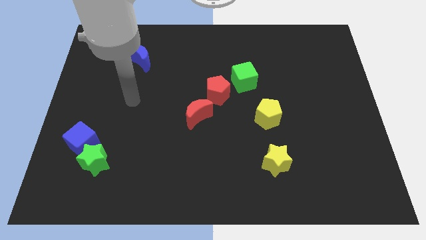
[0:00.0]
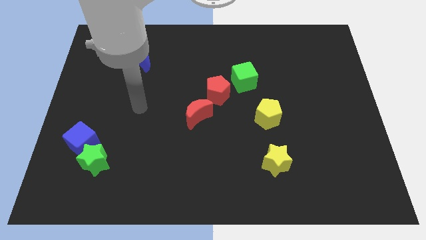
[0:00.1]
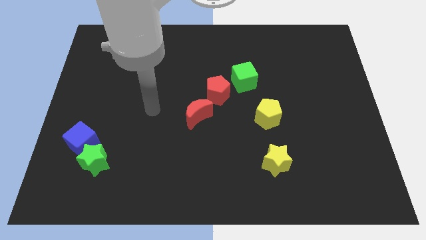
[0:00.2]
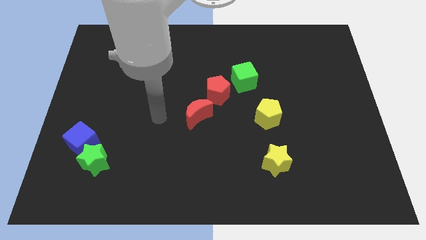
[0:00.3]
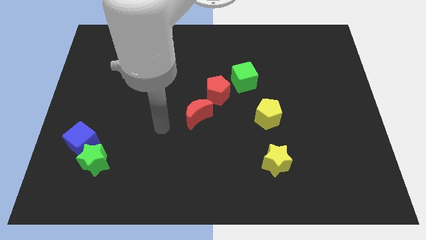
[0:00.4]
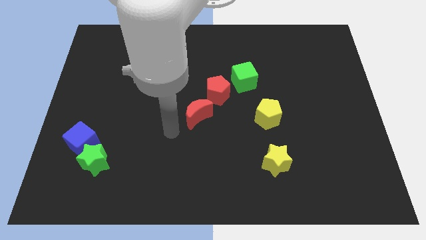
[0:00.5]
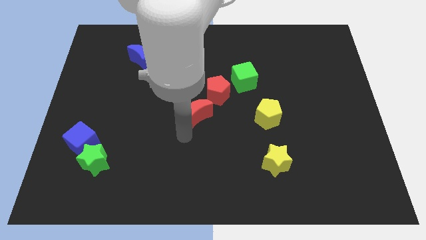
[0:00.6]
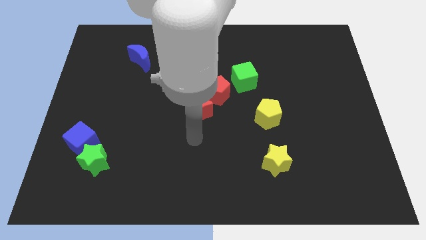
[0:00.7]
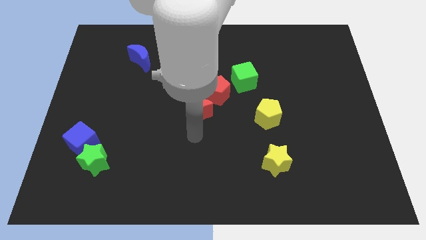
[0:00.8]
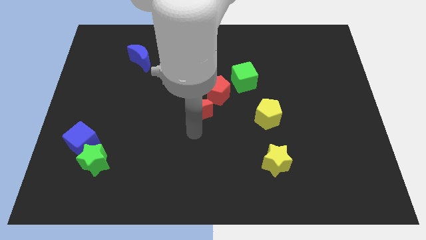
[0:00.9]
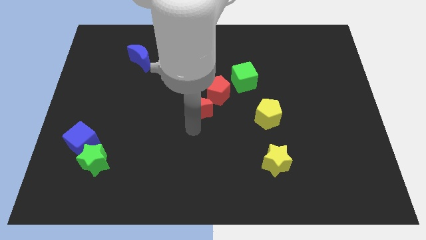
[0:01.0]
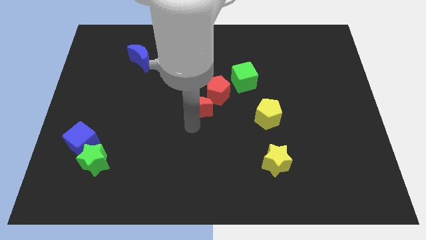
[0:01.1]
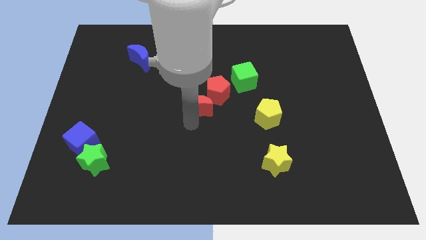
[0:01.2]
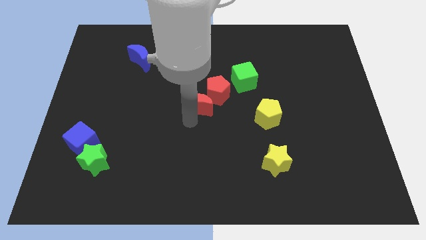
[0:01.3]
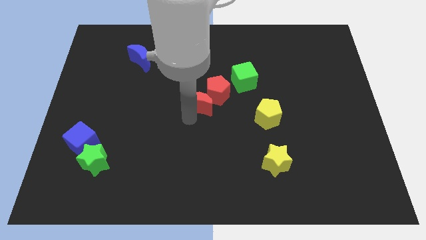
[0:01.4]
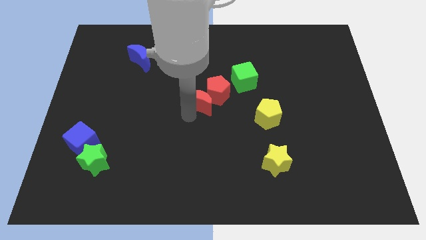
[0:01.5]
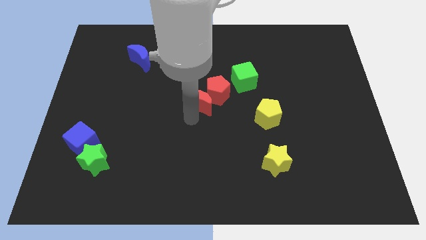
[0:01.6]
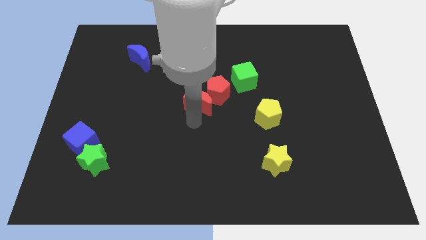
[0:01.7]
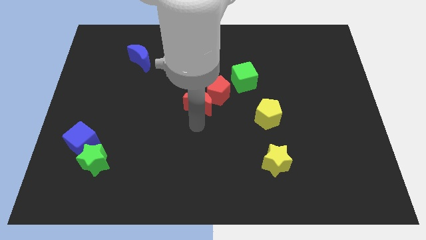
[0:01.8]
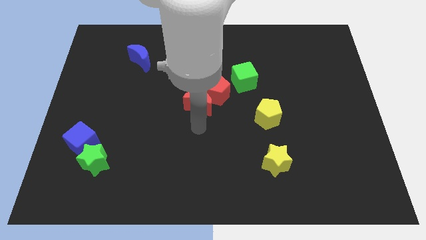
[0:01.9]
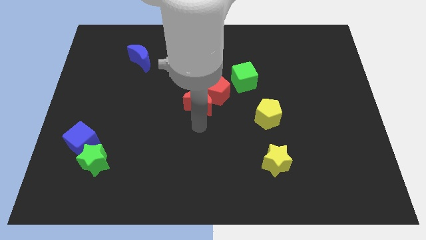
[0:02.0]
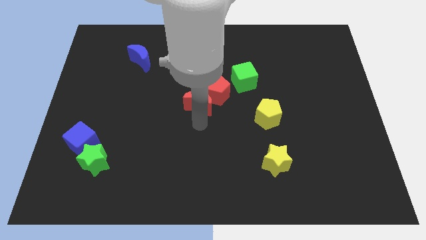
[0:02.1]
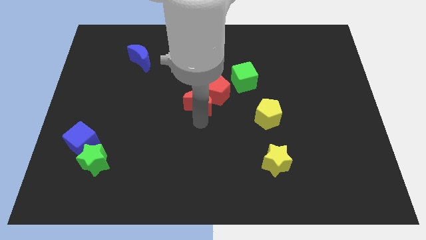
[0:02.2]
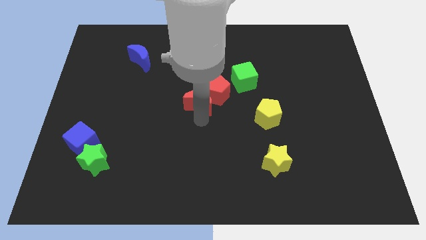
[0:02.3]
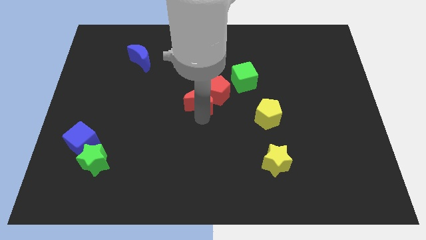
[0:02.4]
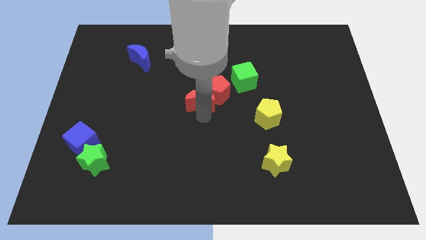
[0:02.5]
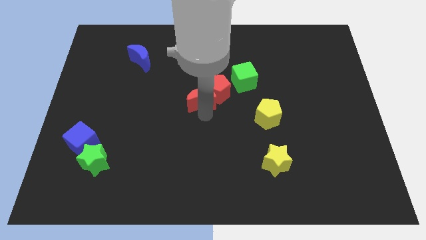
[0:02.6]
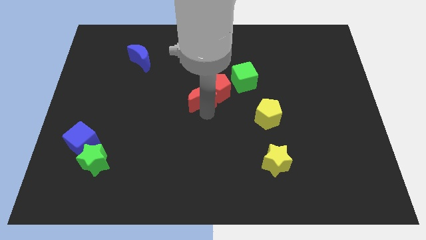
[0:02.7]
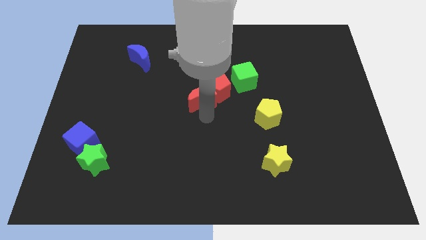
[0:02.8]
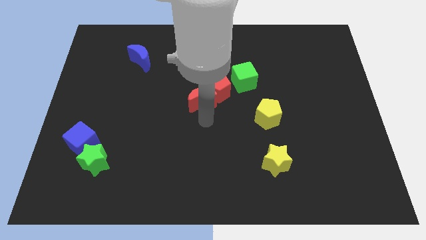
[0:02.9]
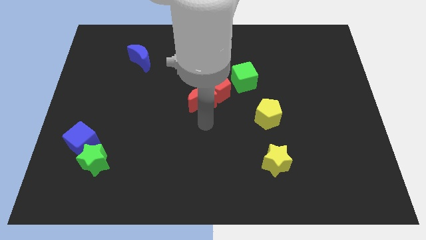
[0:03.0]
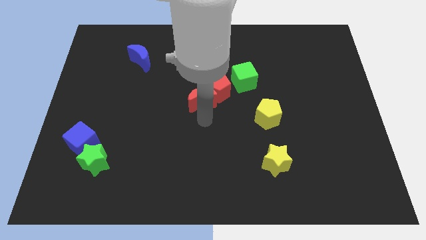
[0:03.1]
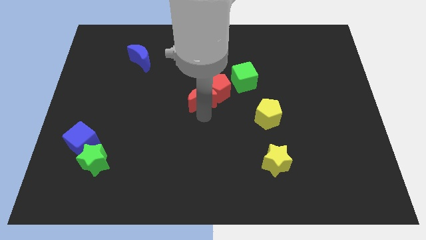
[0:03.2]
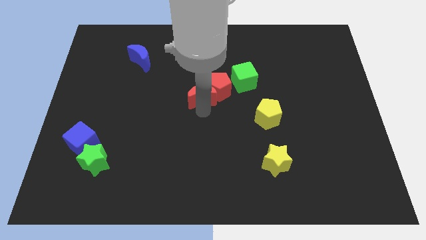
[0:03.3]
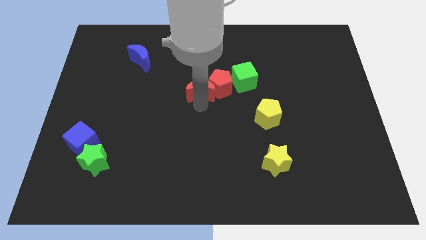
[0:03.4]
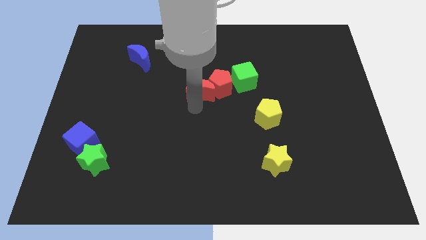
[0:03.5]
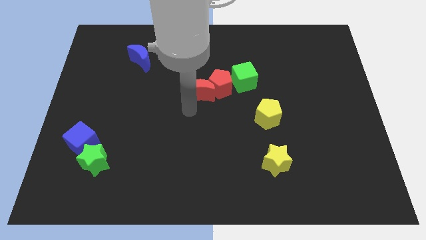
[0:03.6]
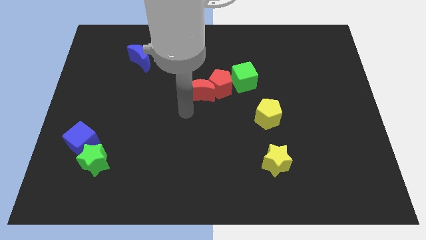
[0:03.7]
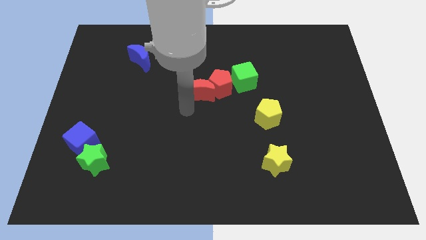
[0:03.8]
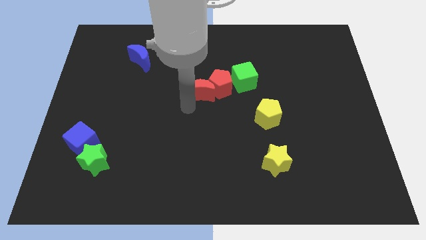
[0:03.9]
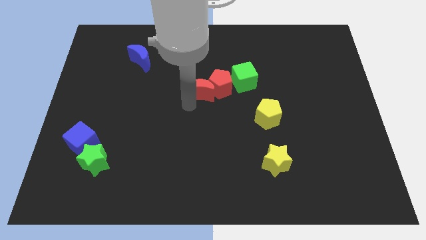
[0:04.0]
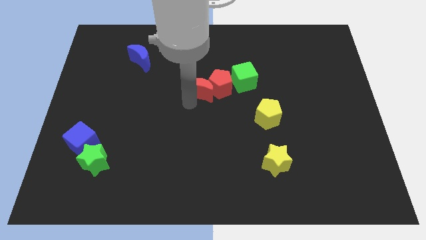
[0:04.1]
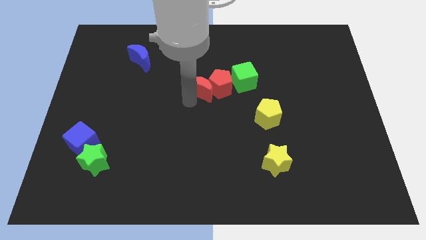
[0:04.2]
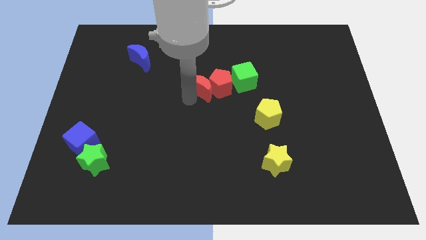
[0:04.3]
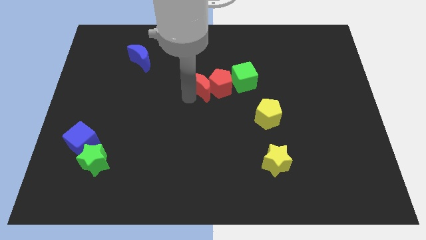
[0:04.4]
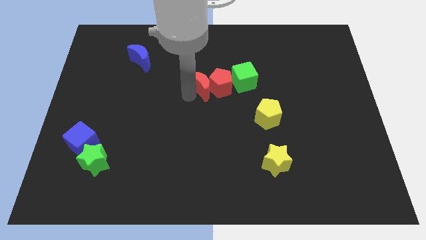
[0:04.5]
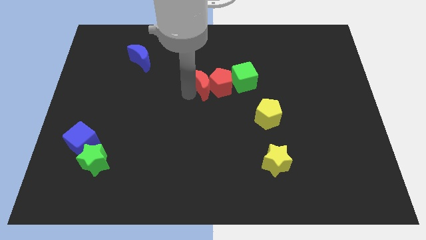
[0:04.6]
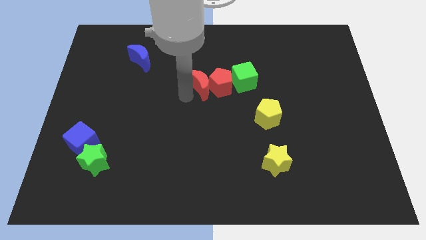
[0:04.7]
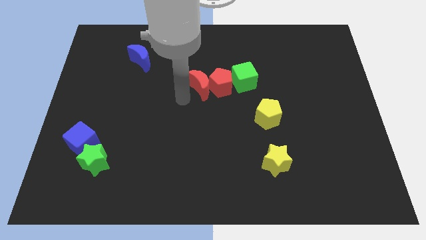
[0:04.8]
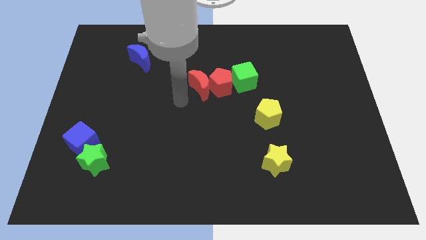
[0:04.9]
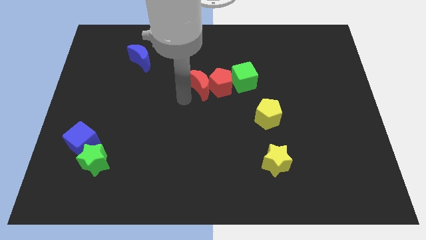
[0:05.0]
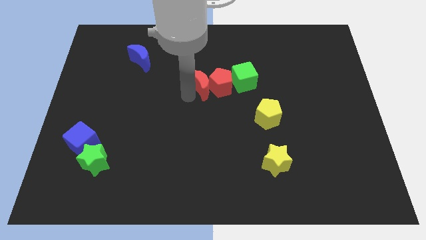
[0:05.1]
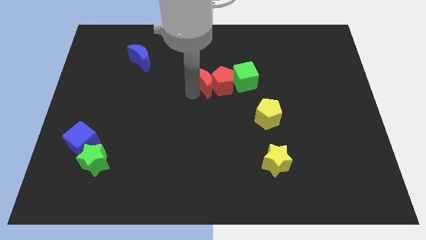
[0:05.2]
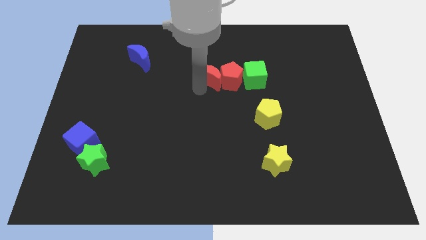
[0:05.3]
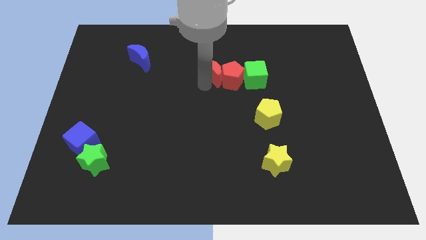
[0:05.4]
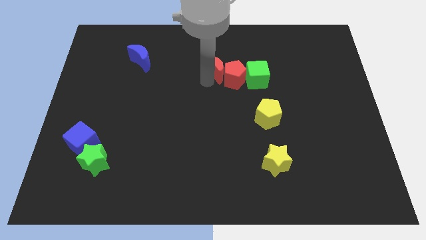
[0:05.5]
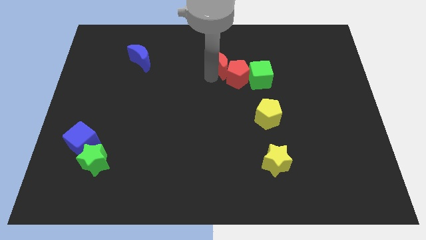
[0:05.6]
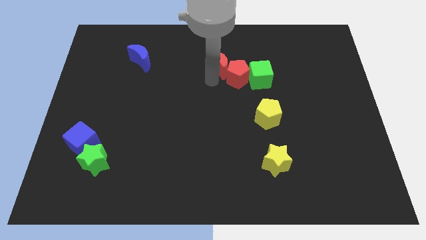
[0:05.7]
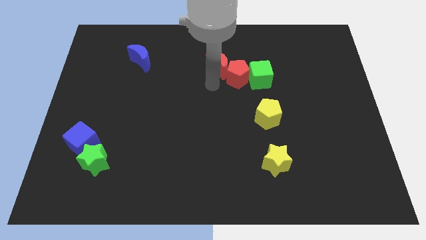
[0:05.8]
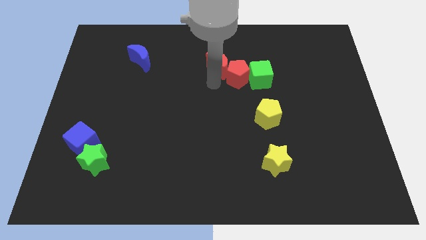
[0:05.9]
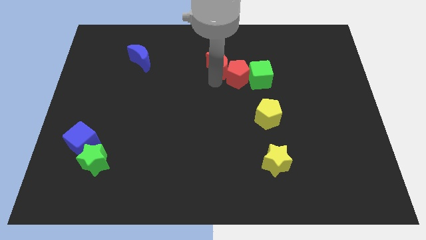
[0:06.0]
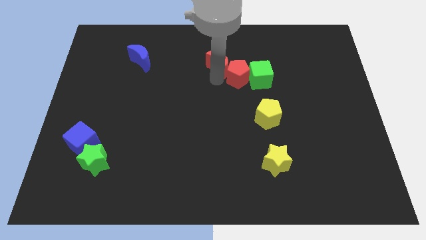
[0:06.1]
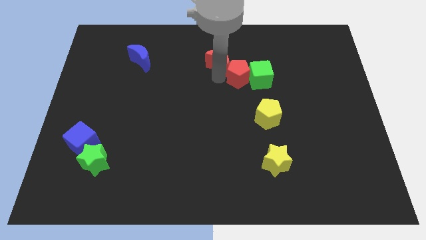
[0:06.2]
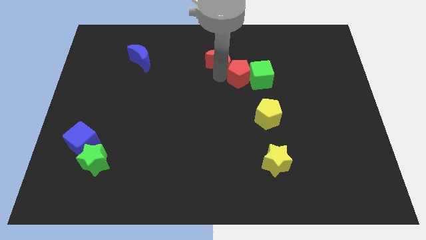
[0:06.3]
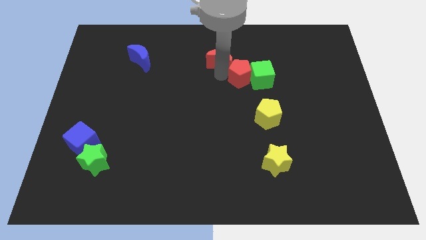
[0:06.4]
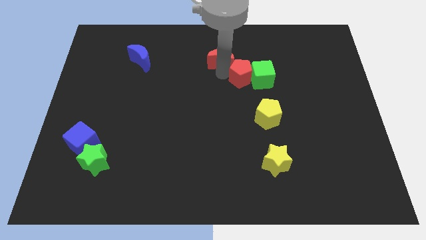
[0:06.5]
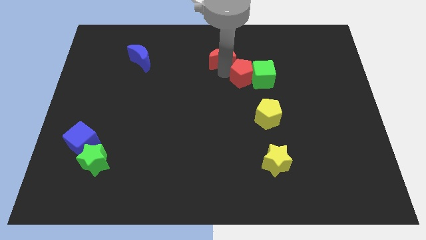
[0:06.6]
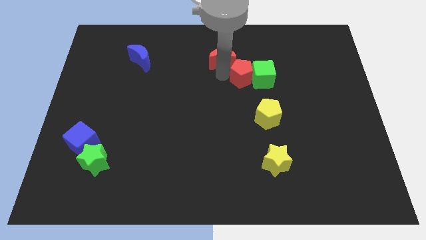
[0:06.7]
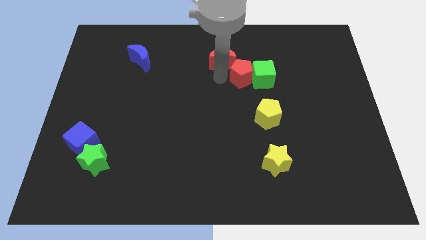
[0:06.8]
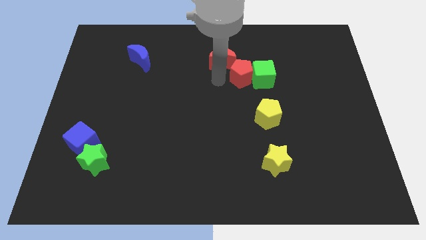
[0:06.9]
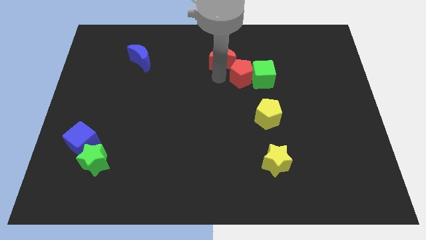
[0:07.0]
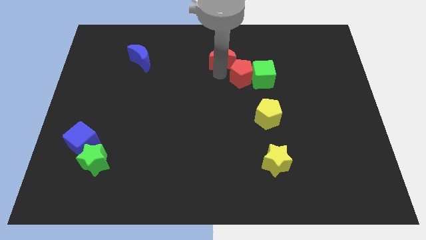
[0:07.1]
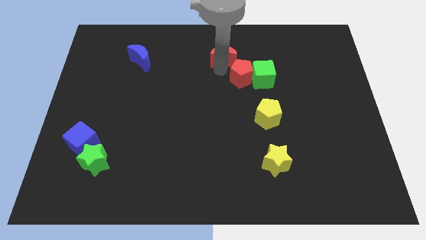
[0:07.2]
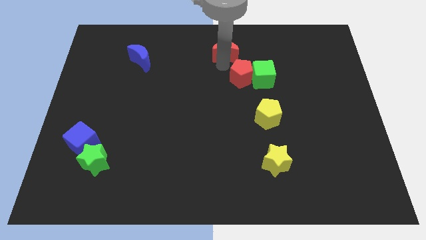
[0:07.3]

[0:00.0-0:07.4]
move the red moon to the top
